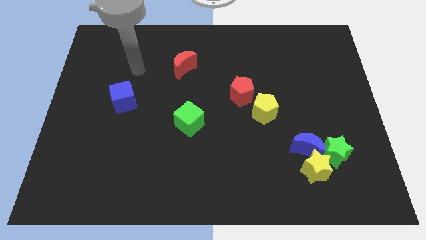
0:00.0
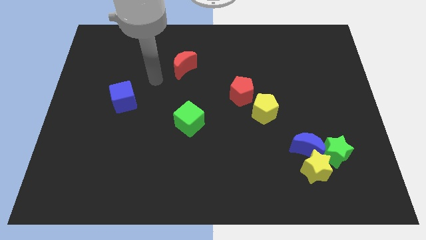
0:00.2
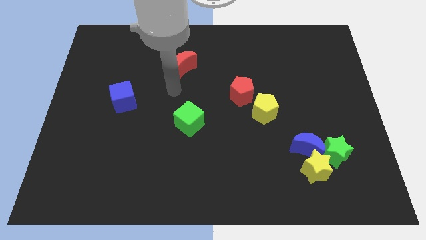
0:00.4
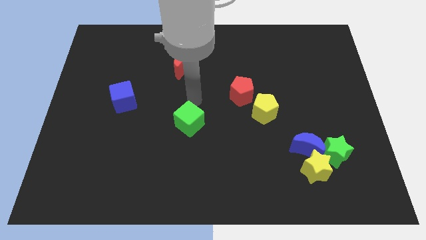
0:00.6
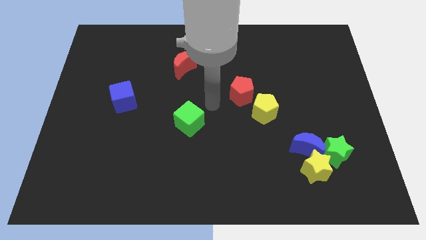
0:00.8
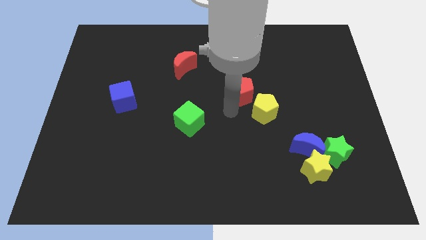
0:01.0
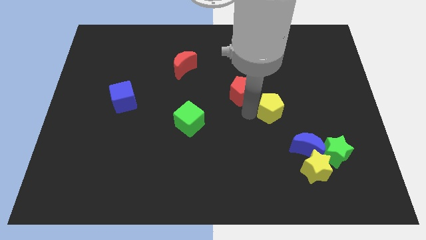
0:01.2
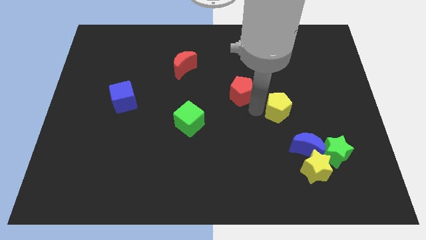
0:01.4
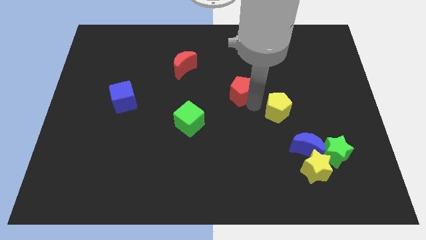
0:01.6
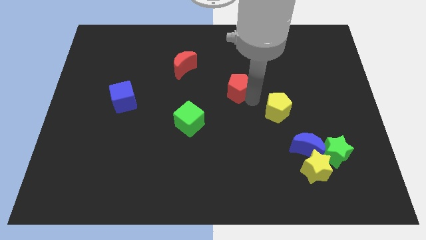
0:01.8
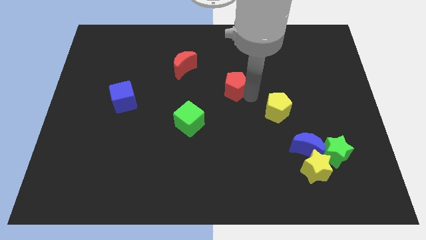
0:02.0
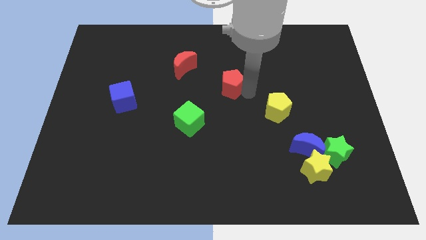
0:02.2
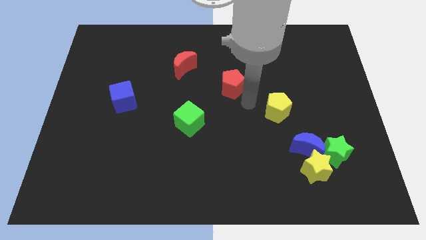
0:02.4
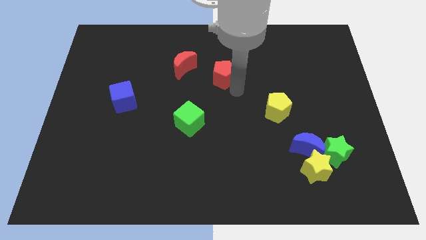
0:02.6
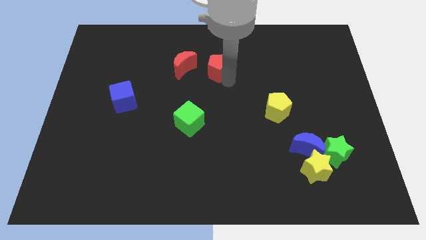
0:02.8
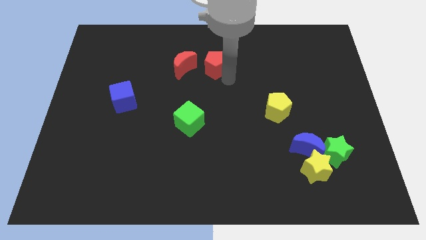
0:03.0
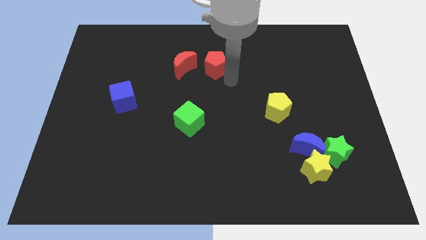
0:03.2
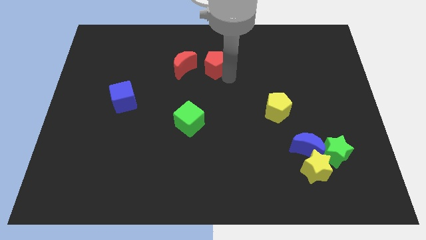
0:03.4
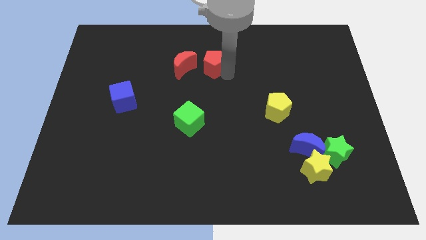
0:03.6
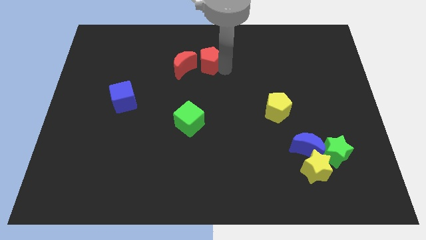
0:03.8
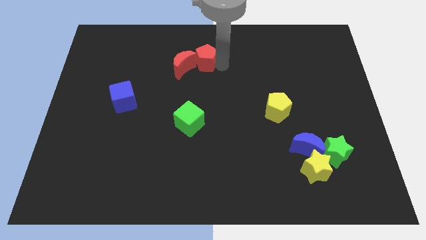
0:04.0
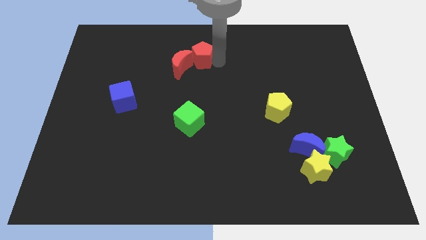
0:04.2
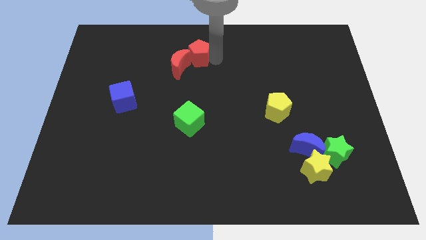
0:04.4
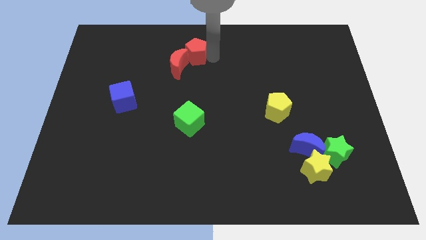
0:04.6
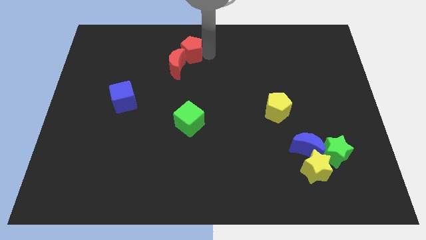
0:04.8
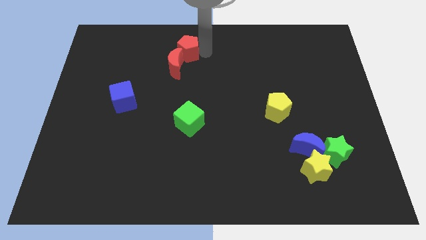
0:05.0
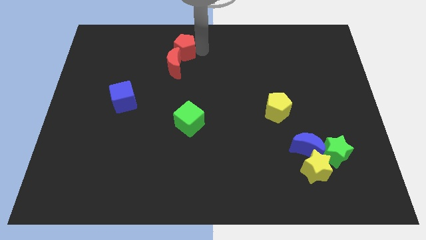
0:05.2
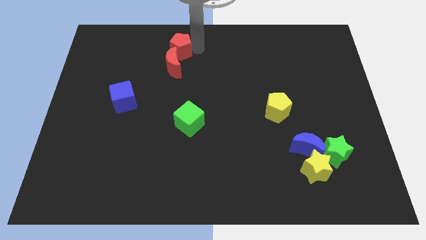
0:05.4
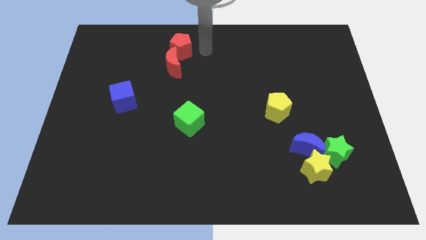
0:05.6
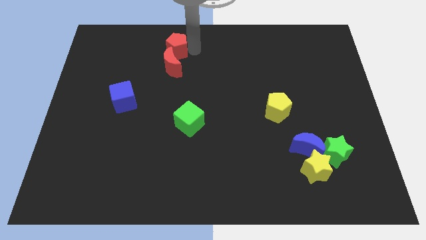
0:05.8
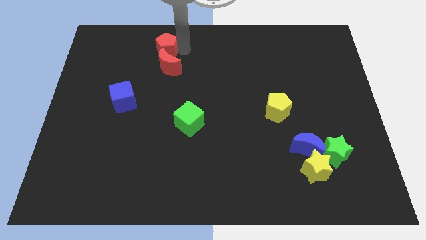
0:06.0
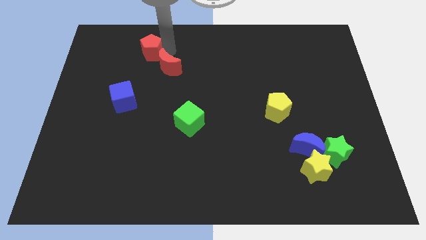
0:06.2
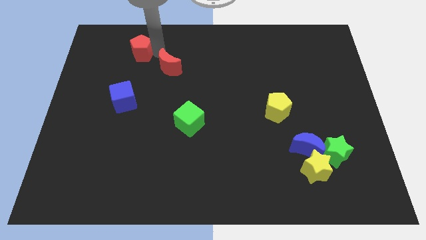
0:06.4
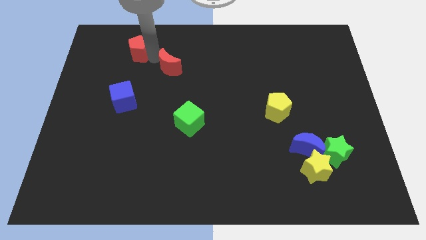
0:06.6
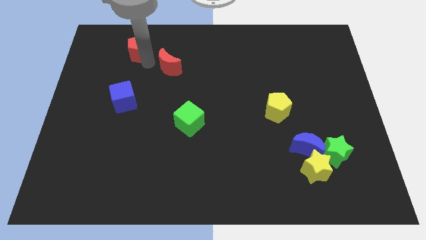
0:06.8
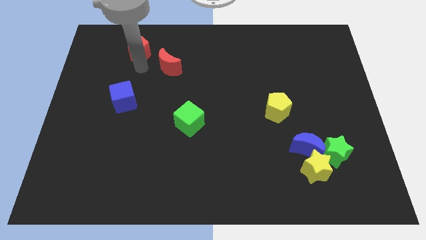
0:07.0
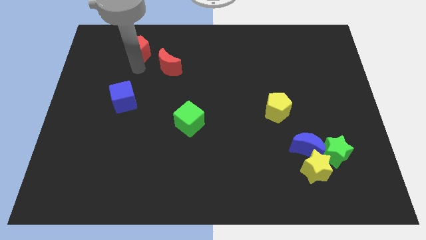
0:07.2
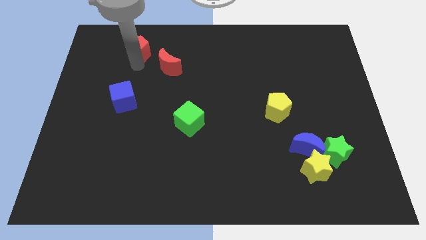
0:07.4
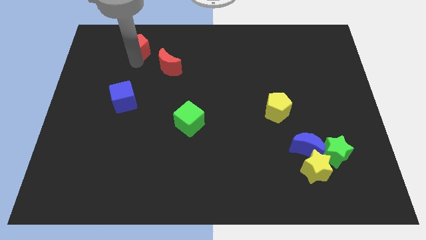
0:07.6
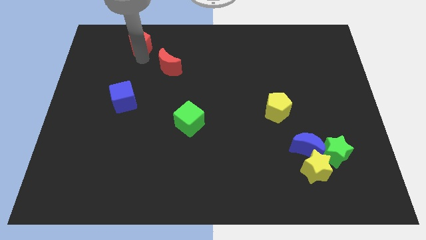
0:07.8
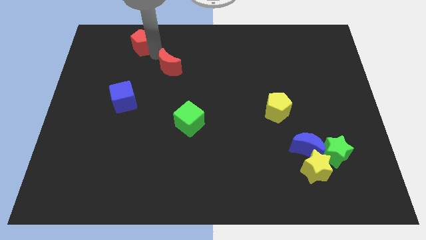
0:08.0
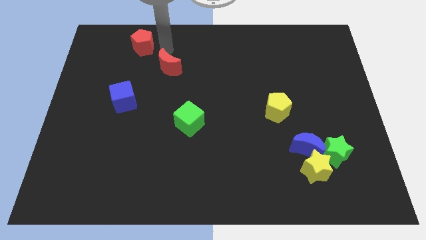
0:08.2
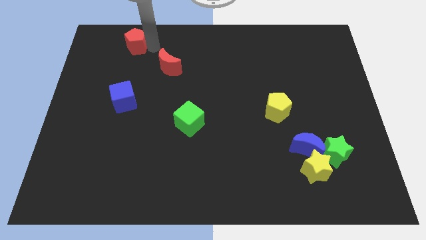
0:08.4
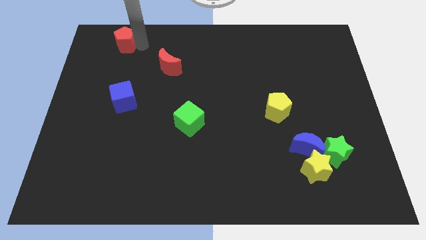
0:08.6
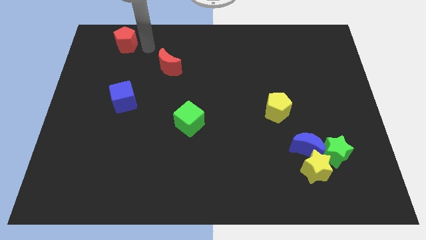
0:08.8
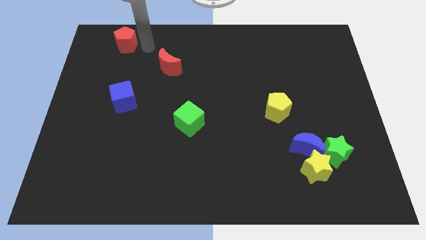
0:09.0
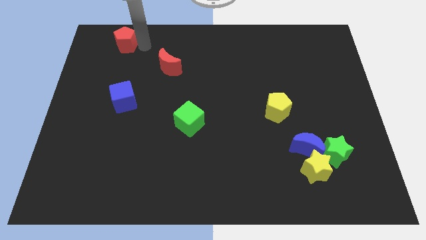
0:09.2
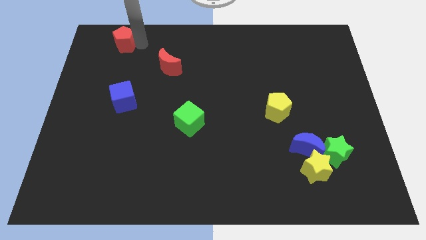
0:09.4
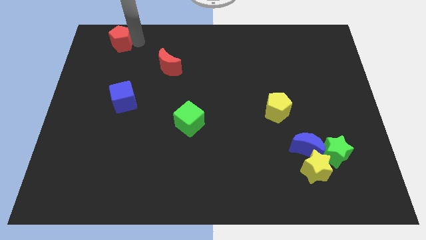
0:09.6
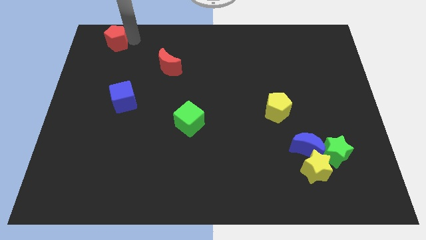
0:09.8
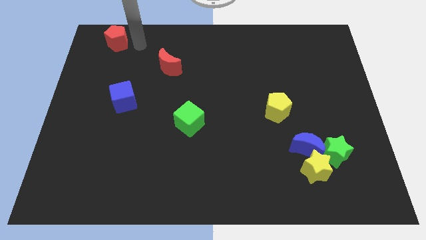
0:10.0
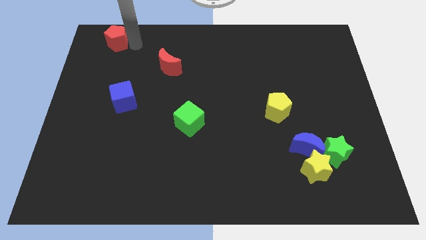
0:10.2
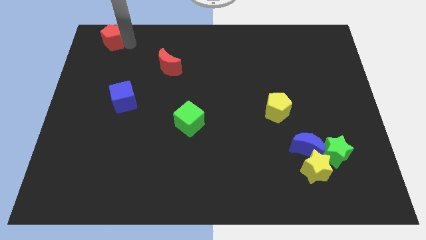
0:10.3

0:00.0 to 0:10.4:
move the red pentagon to the top left

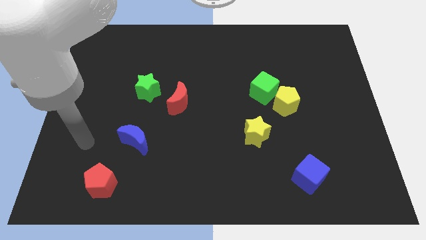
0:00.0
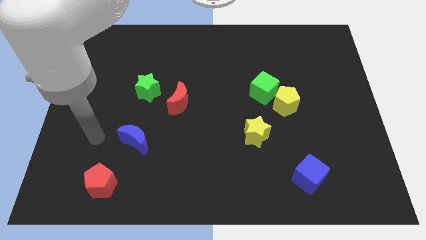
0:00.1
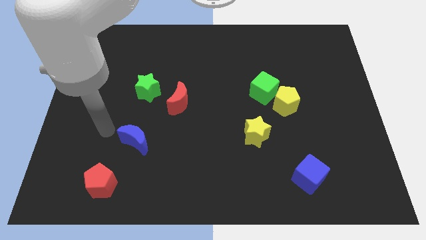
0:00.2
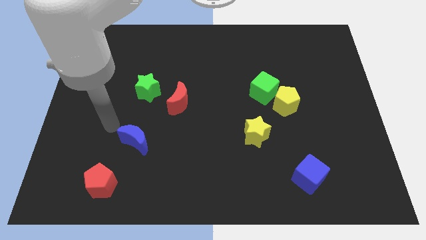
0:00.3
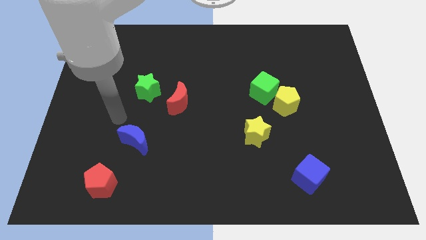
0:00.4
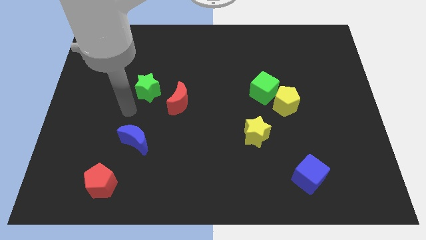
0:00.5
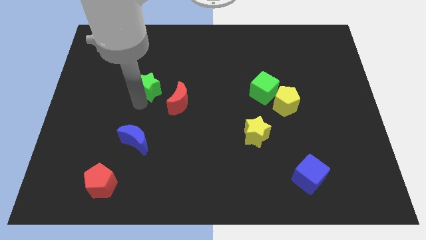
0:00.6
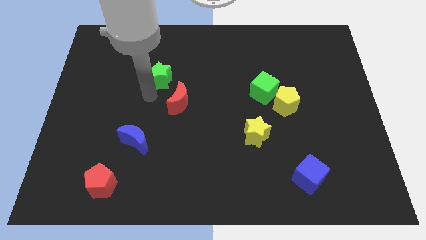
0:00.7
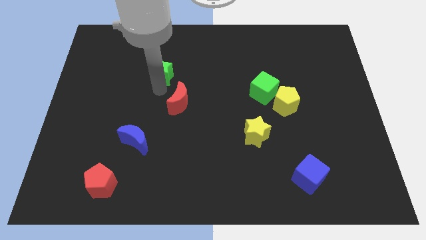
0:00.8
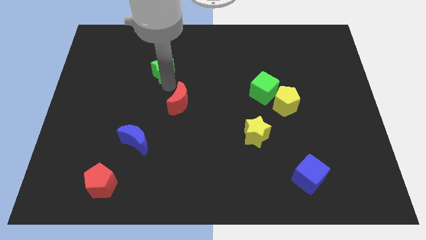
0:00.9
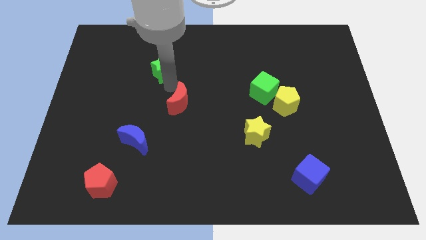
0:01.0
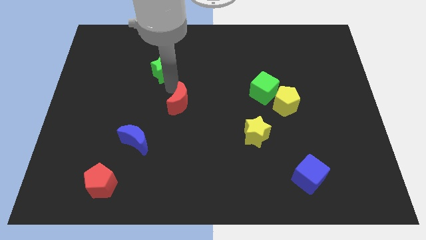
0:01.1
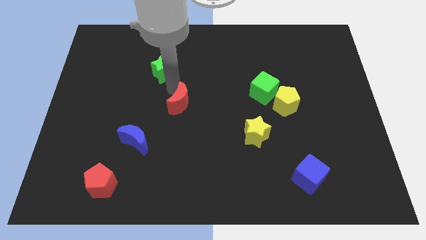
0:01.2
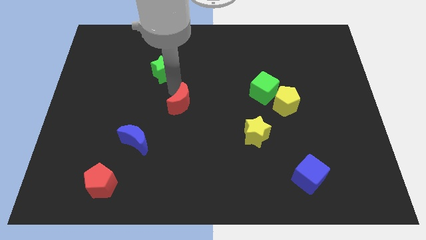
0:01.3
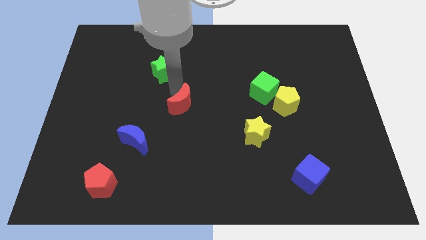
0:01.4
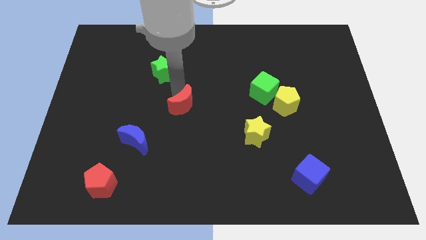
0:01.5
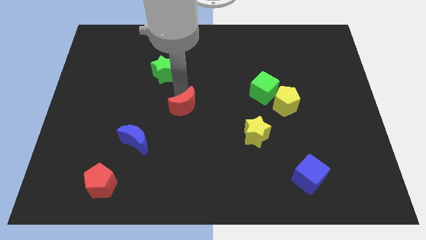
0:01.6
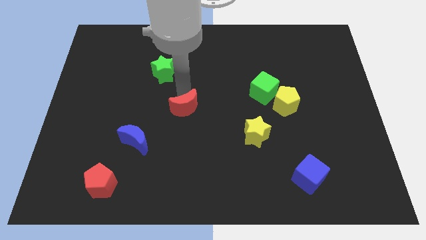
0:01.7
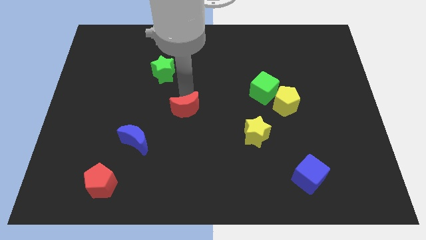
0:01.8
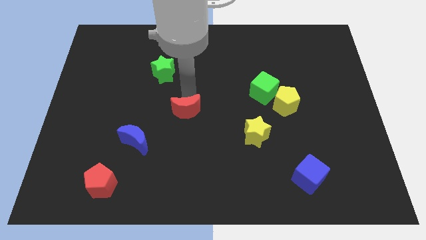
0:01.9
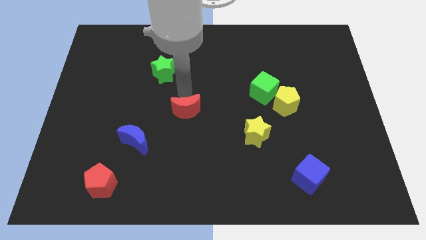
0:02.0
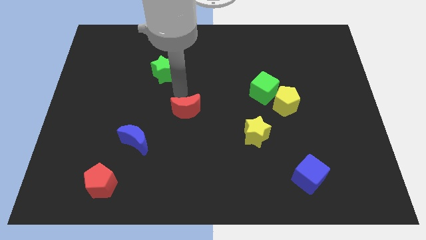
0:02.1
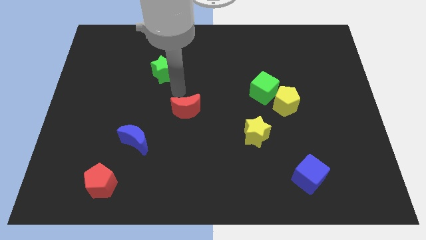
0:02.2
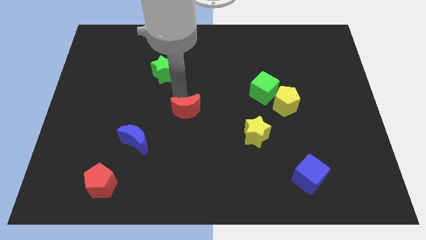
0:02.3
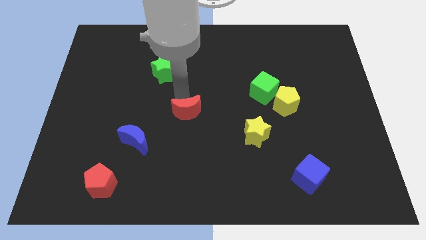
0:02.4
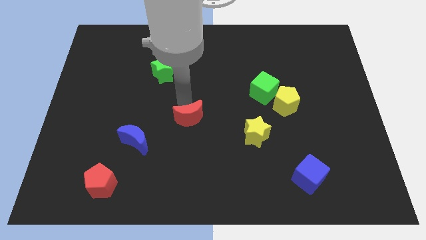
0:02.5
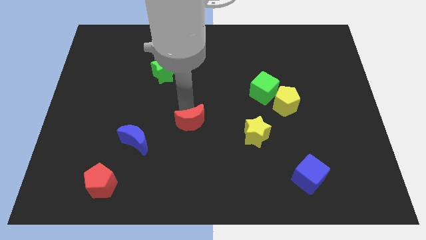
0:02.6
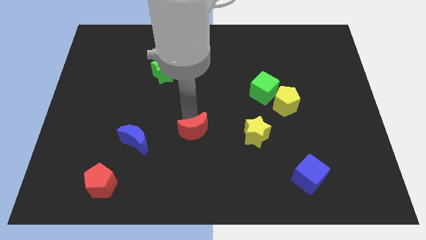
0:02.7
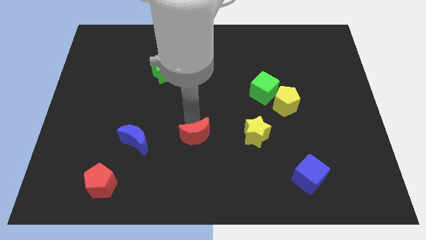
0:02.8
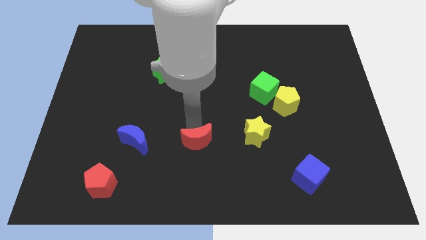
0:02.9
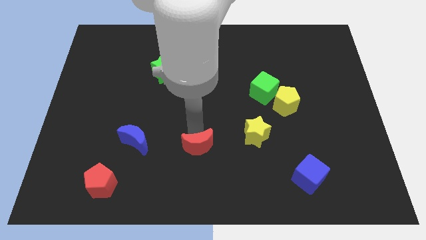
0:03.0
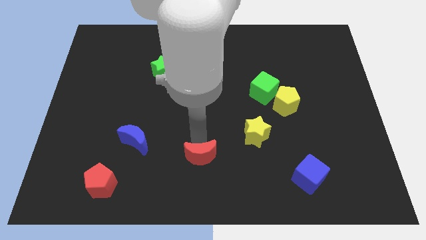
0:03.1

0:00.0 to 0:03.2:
push the red moon to the bottom
